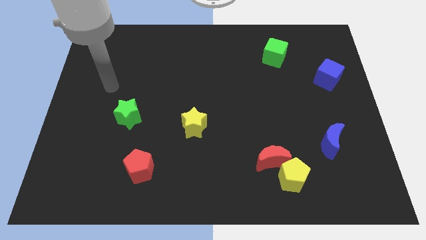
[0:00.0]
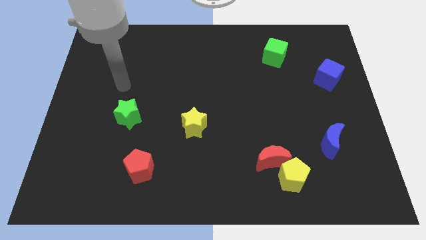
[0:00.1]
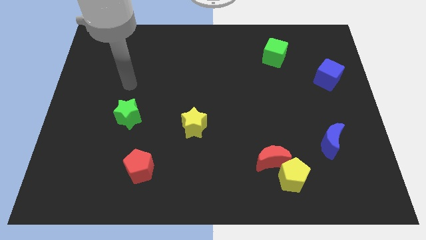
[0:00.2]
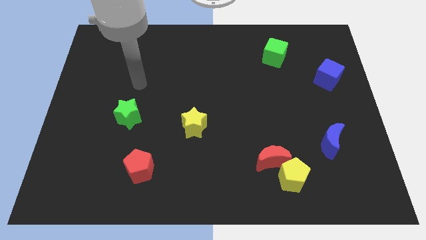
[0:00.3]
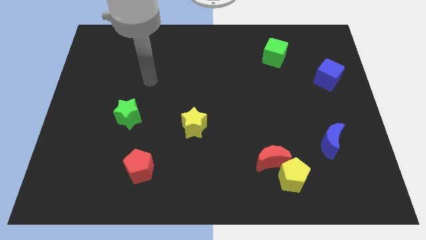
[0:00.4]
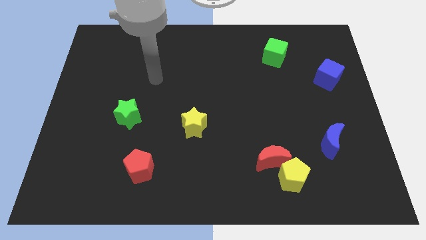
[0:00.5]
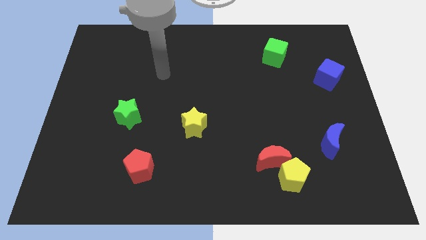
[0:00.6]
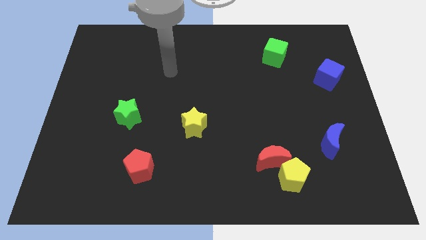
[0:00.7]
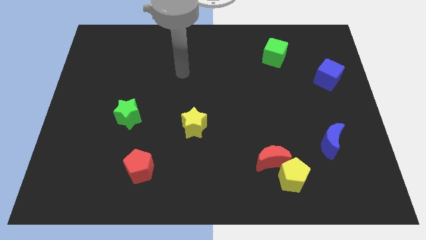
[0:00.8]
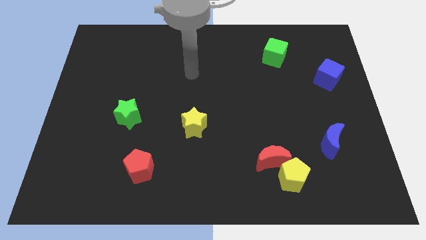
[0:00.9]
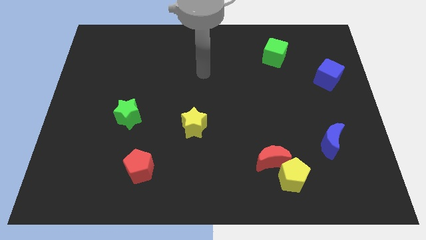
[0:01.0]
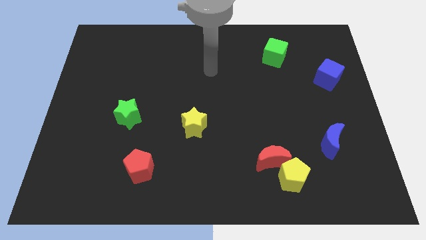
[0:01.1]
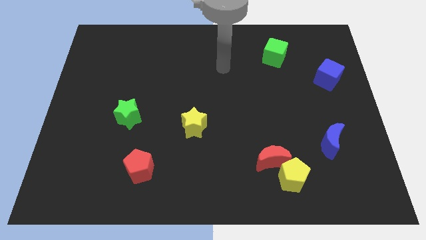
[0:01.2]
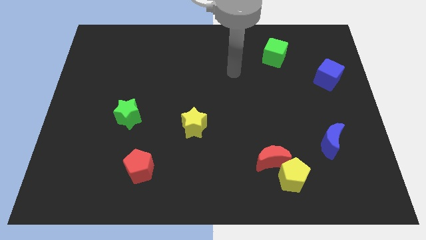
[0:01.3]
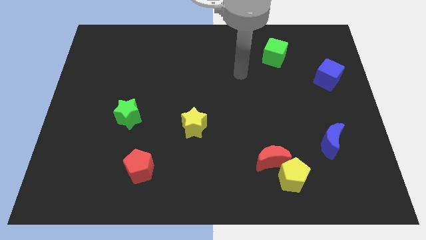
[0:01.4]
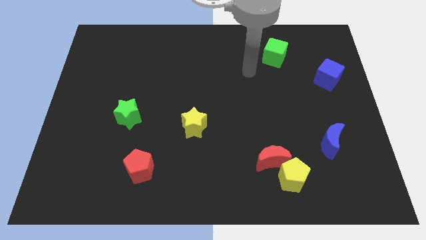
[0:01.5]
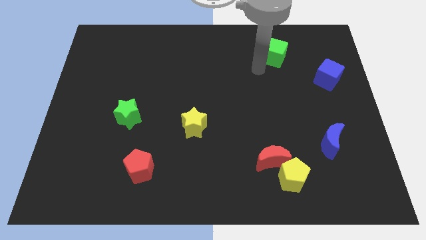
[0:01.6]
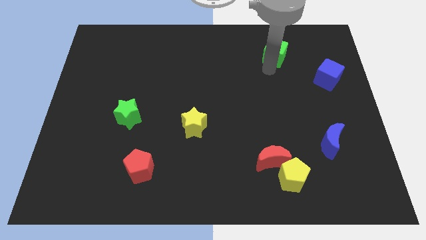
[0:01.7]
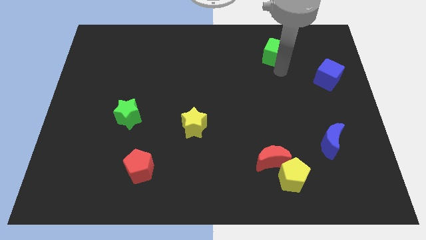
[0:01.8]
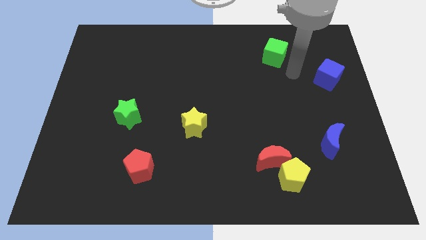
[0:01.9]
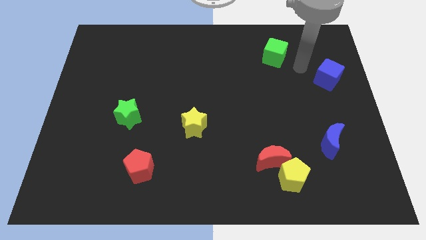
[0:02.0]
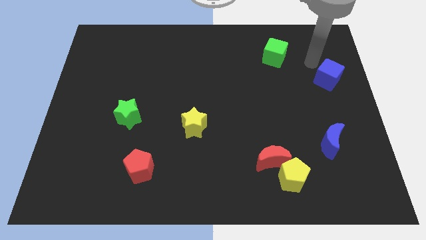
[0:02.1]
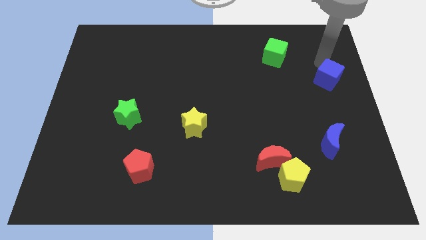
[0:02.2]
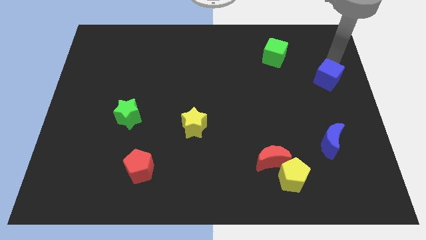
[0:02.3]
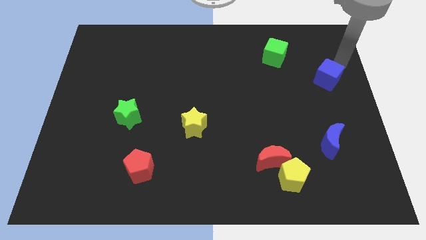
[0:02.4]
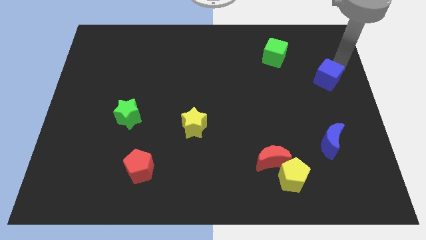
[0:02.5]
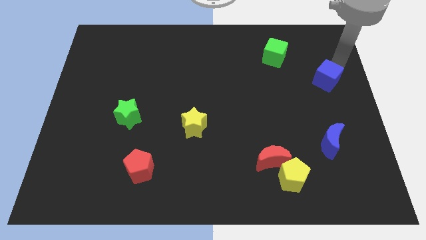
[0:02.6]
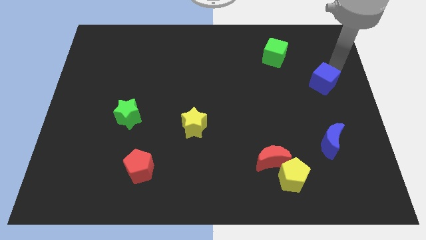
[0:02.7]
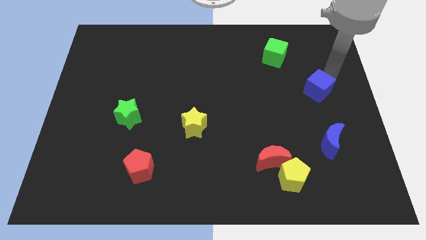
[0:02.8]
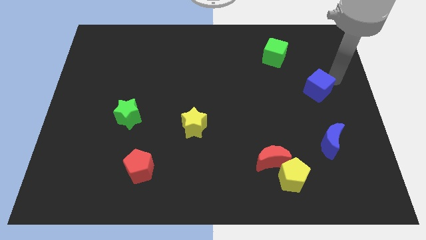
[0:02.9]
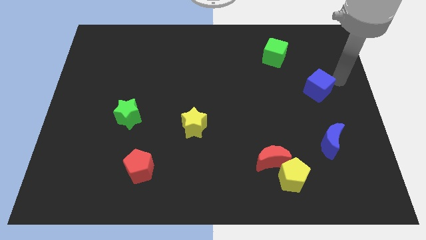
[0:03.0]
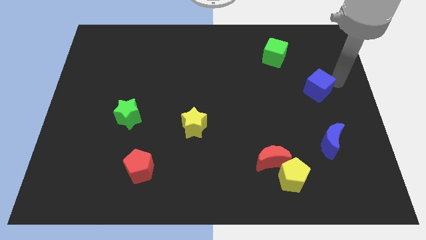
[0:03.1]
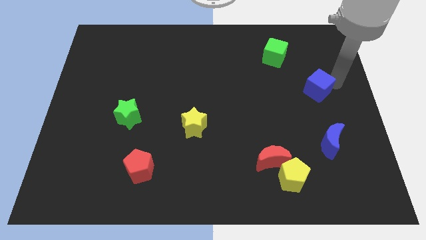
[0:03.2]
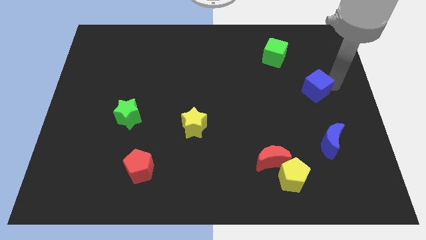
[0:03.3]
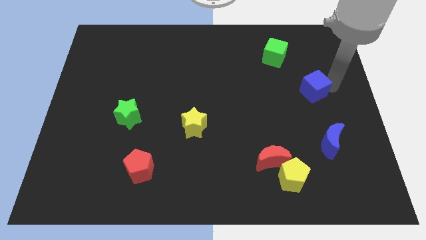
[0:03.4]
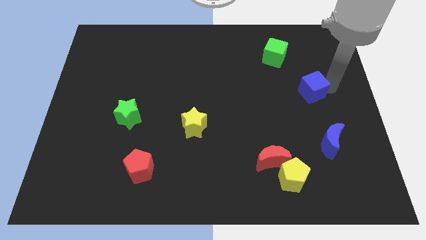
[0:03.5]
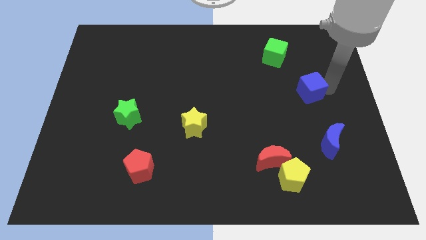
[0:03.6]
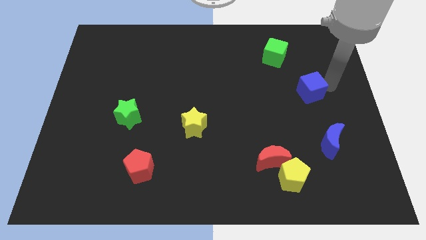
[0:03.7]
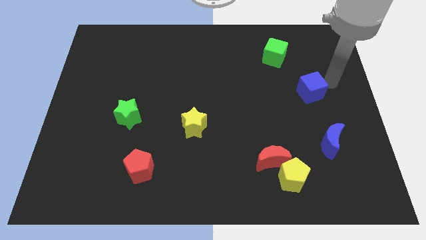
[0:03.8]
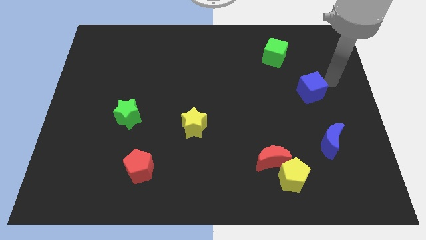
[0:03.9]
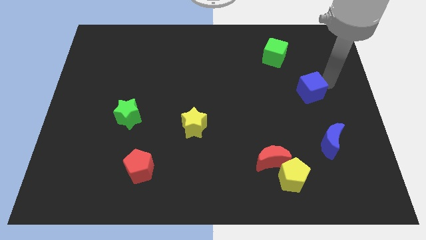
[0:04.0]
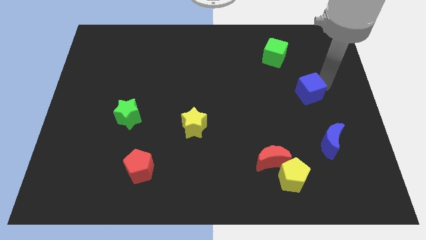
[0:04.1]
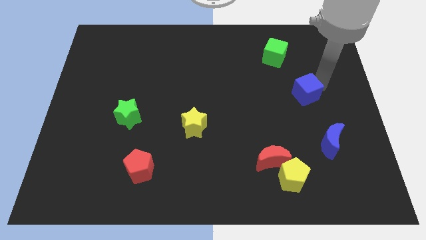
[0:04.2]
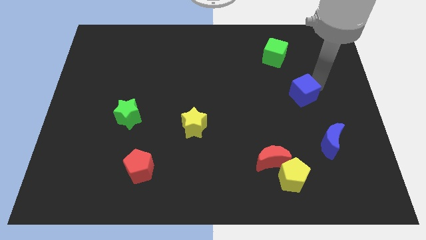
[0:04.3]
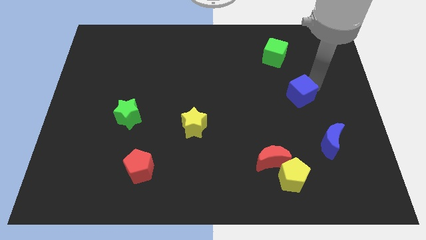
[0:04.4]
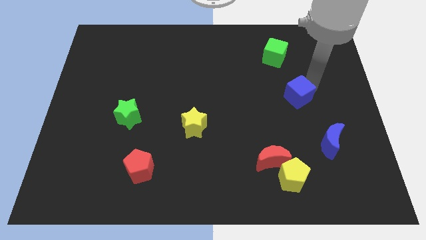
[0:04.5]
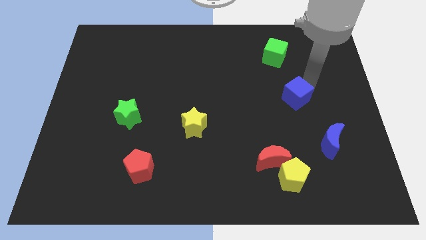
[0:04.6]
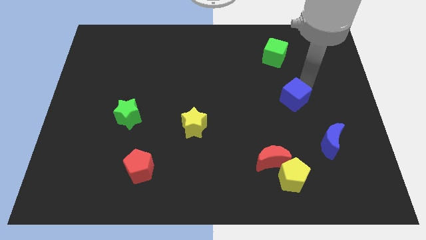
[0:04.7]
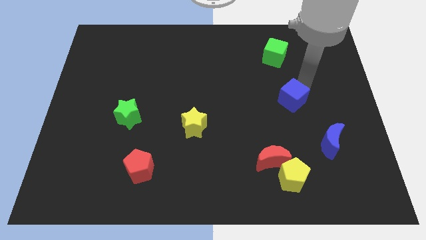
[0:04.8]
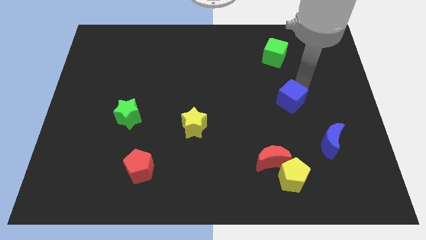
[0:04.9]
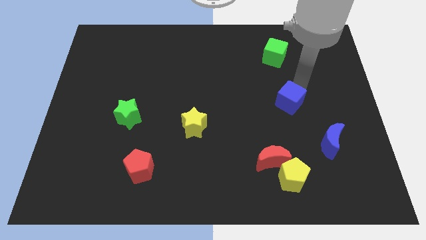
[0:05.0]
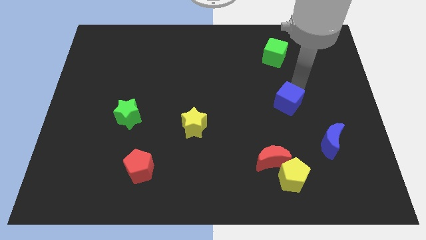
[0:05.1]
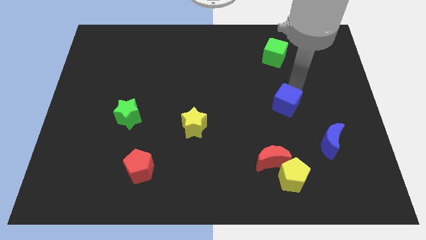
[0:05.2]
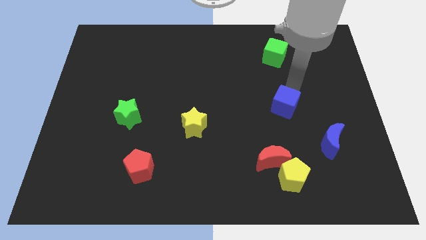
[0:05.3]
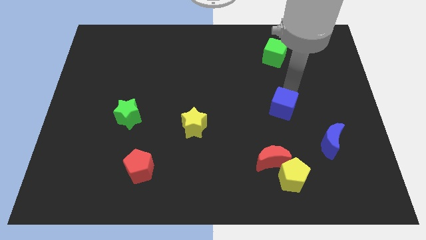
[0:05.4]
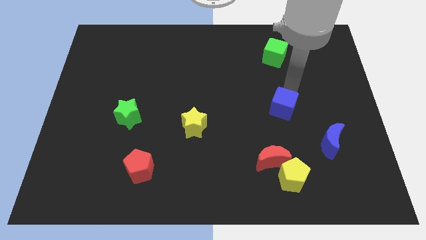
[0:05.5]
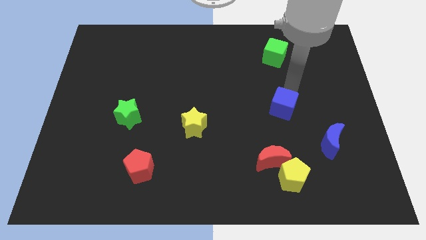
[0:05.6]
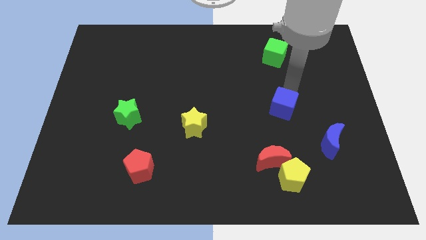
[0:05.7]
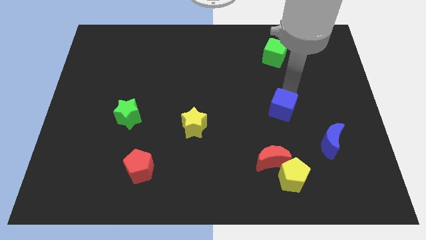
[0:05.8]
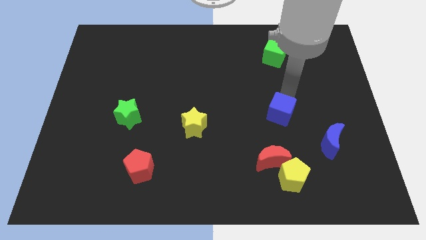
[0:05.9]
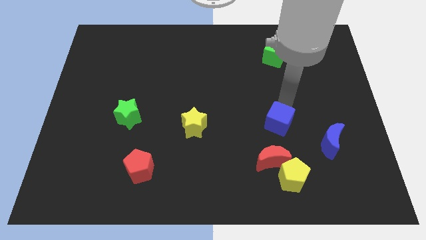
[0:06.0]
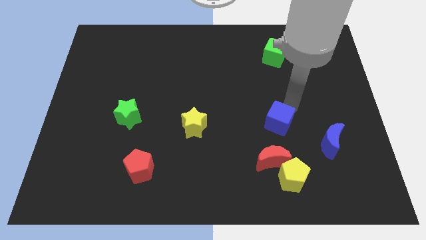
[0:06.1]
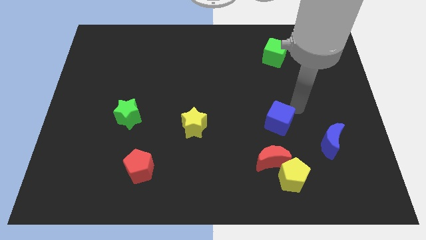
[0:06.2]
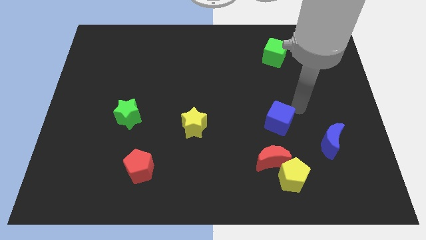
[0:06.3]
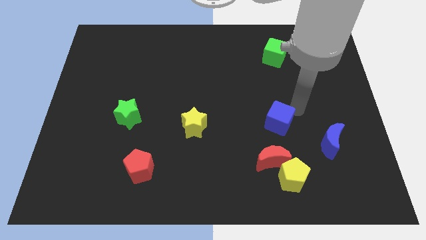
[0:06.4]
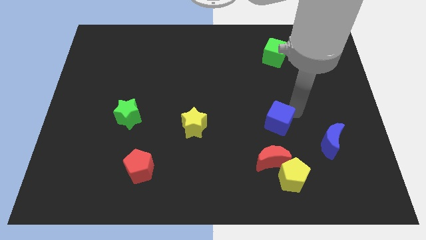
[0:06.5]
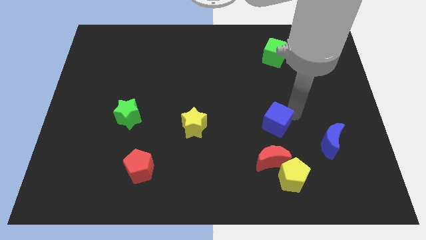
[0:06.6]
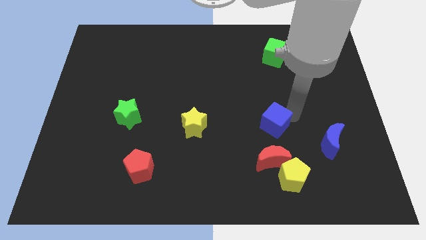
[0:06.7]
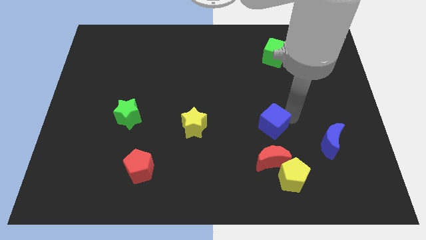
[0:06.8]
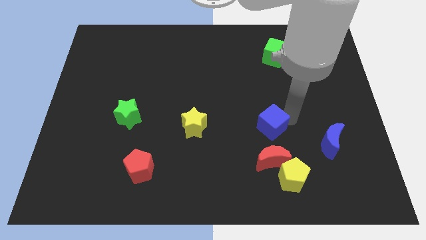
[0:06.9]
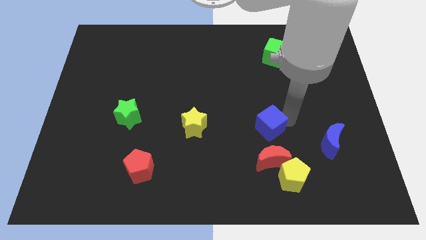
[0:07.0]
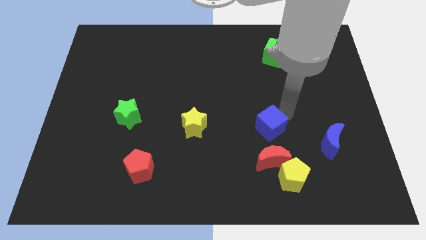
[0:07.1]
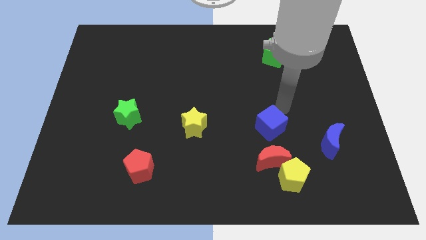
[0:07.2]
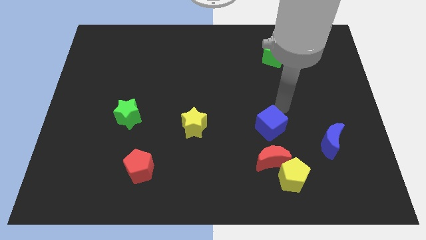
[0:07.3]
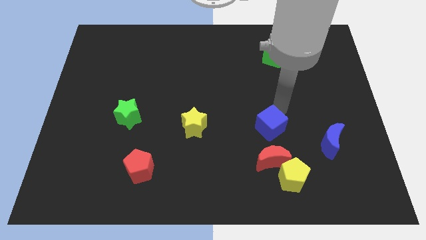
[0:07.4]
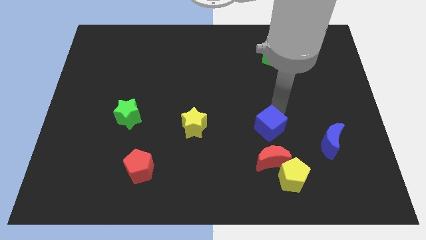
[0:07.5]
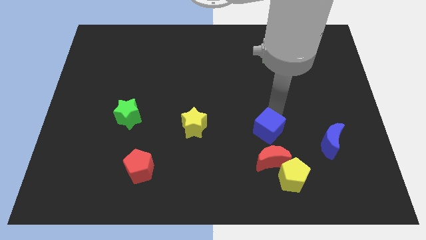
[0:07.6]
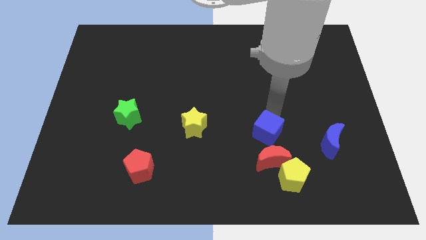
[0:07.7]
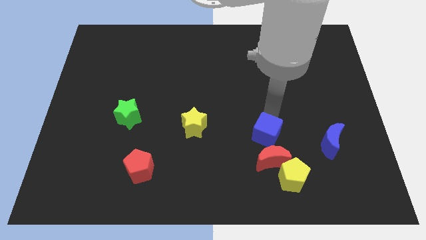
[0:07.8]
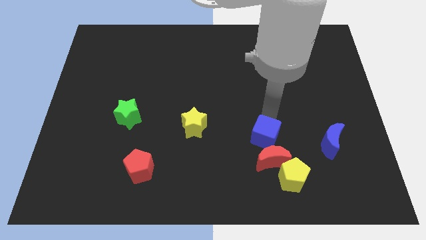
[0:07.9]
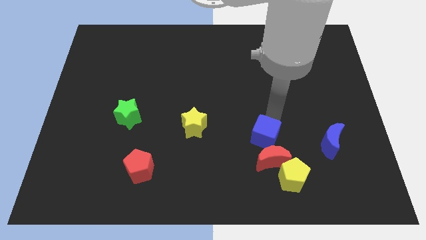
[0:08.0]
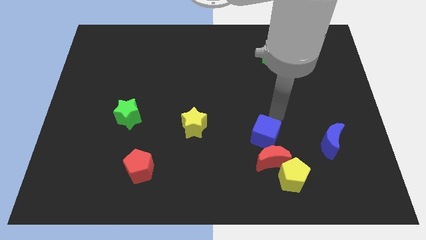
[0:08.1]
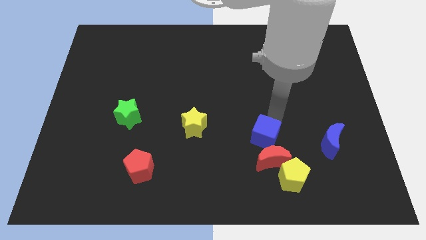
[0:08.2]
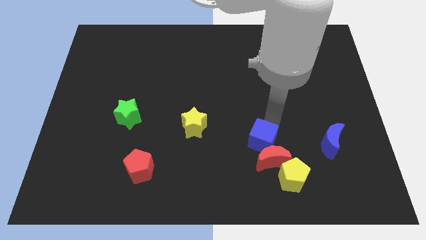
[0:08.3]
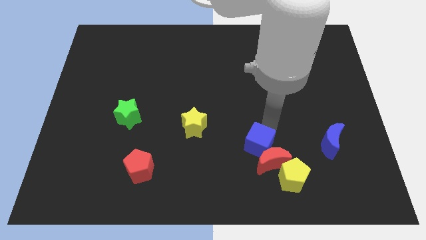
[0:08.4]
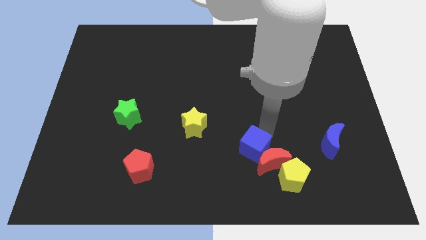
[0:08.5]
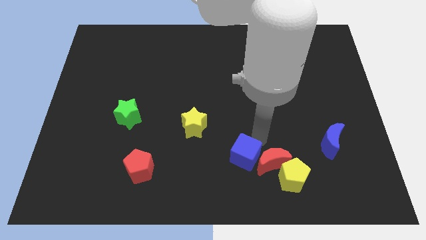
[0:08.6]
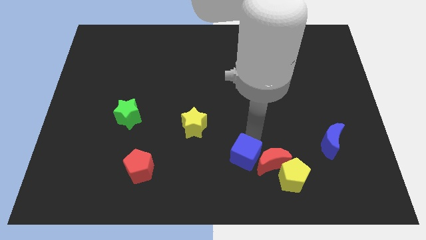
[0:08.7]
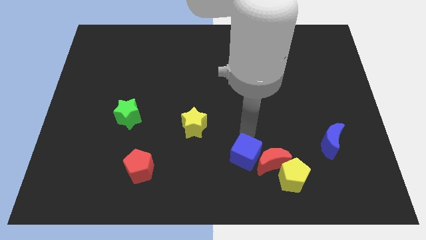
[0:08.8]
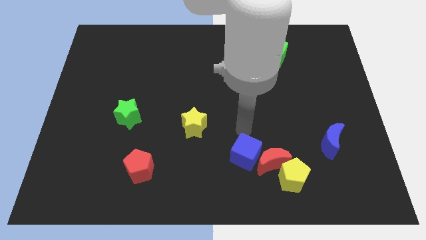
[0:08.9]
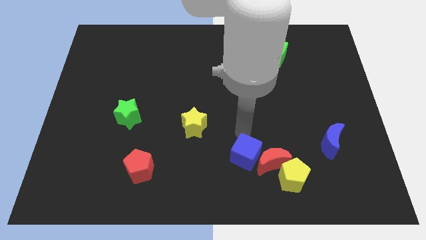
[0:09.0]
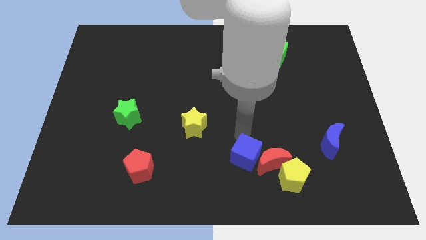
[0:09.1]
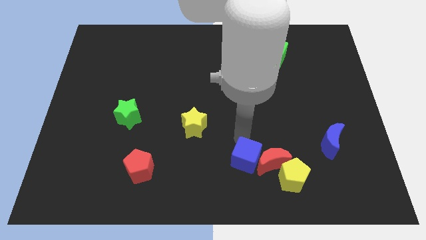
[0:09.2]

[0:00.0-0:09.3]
put the blue cube to the bottom left side of the red moon
